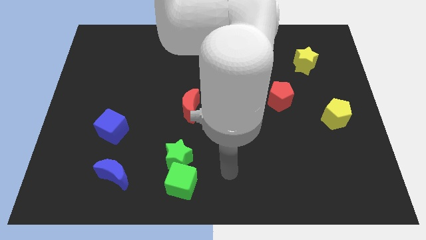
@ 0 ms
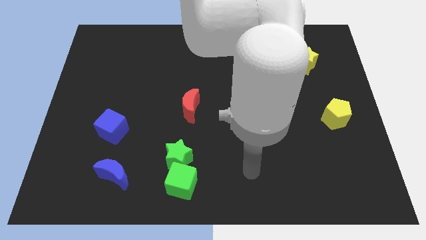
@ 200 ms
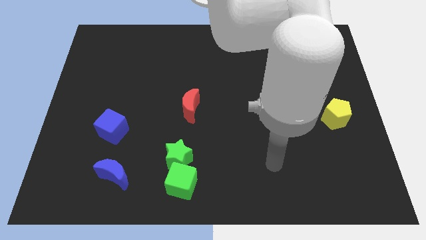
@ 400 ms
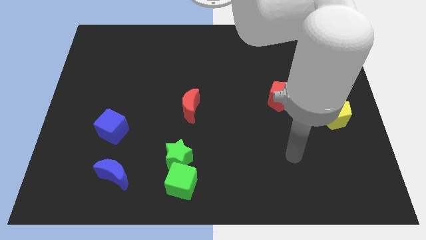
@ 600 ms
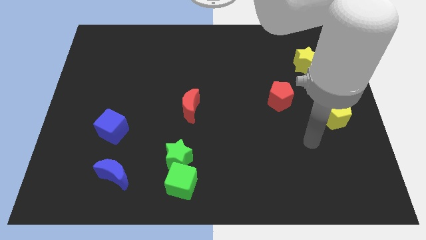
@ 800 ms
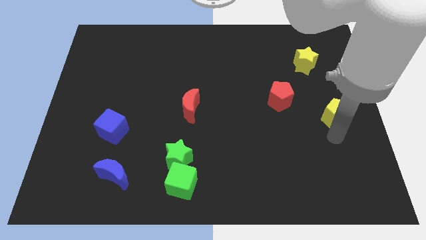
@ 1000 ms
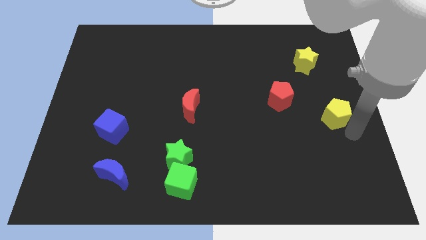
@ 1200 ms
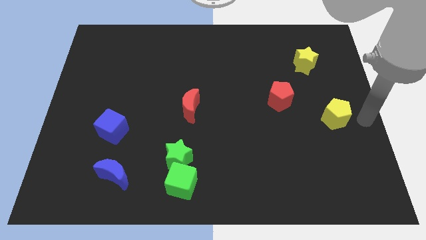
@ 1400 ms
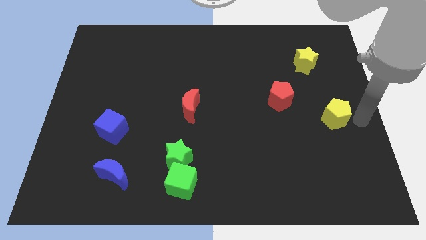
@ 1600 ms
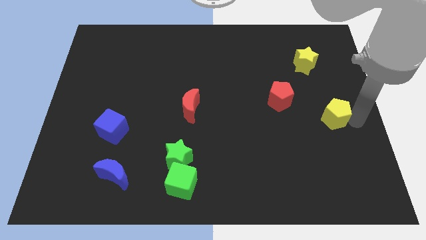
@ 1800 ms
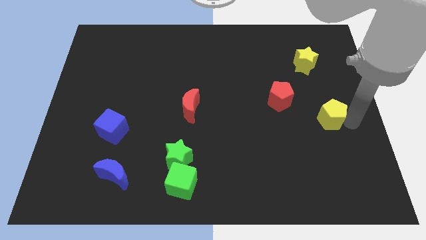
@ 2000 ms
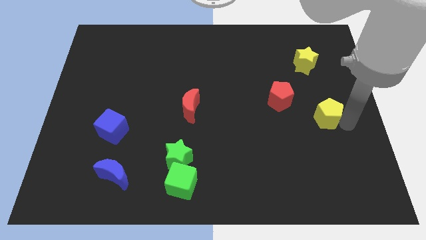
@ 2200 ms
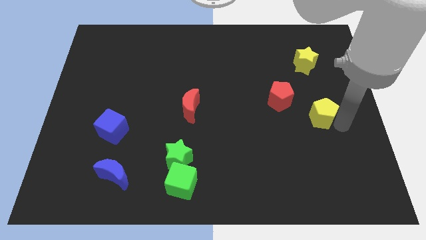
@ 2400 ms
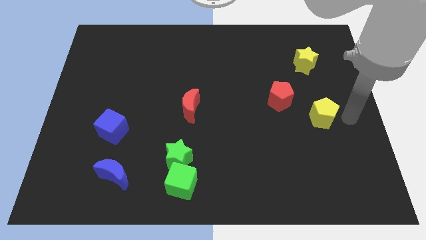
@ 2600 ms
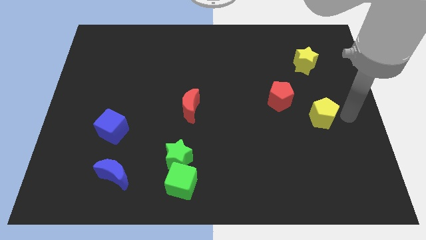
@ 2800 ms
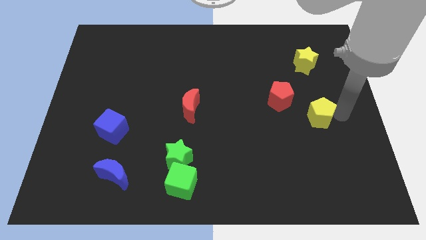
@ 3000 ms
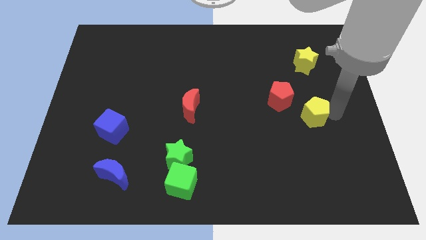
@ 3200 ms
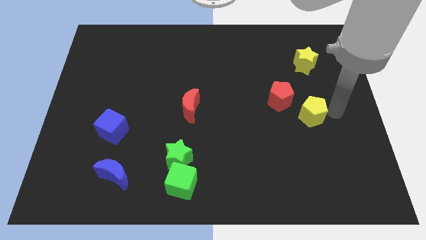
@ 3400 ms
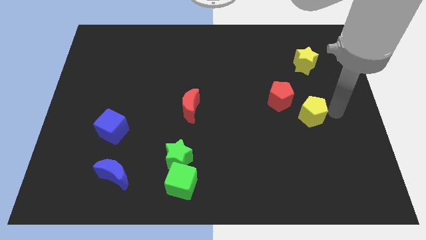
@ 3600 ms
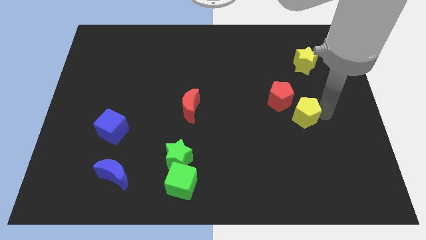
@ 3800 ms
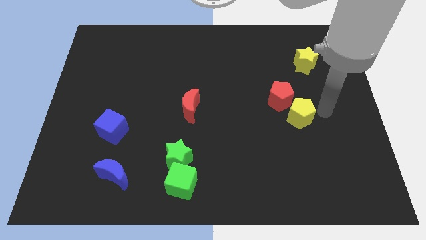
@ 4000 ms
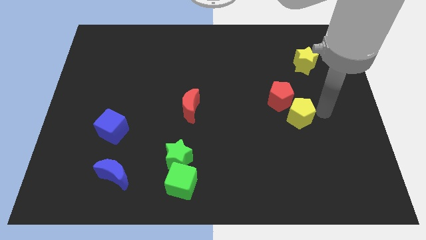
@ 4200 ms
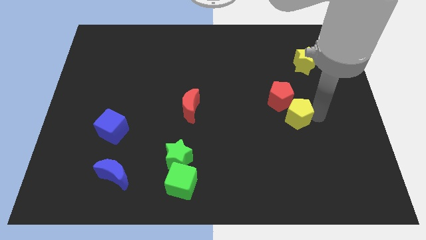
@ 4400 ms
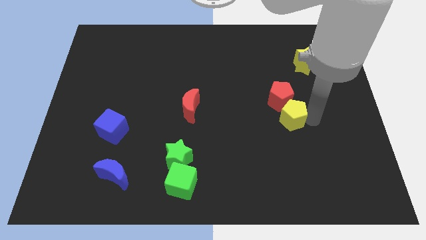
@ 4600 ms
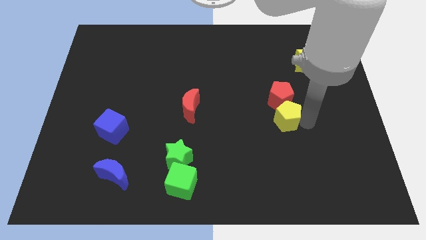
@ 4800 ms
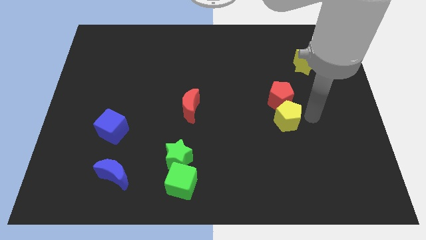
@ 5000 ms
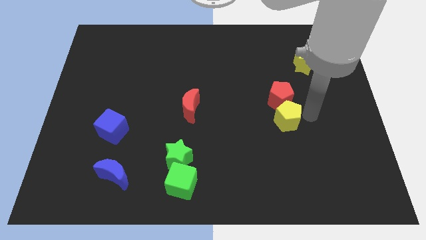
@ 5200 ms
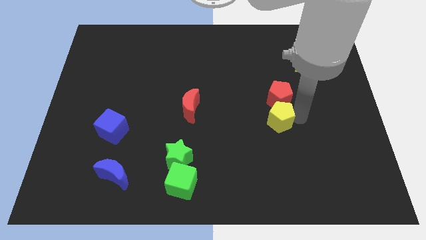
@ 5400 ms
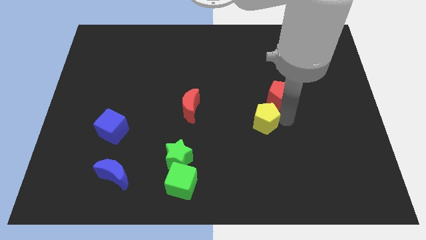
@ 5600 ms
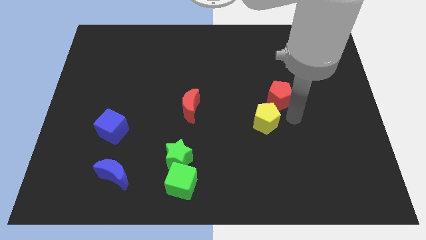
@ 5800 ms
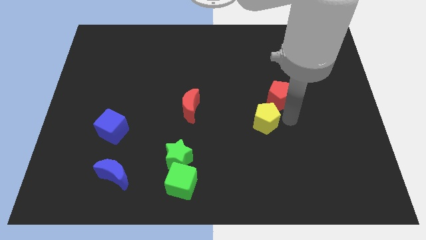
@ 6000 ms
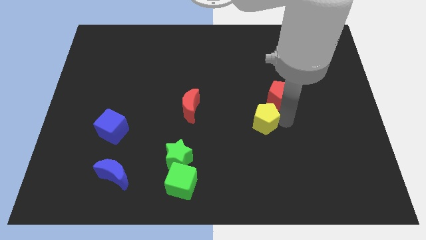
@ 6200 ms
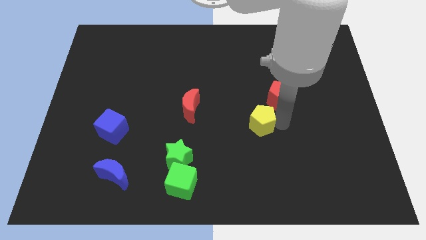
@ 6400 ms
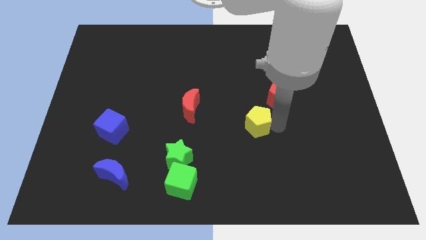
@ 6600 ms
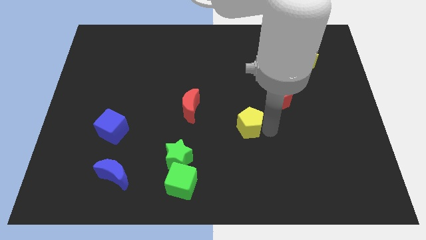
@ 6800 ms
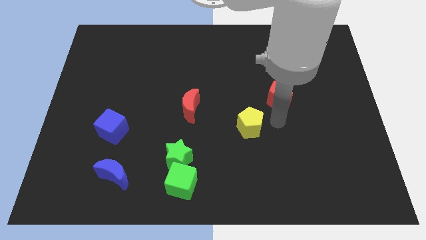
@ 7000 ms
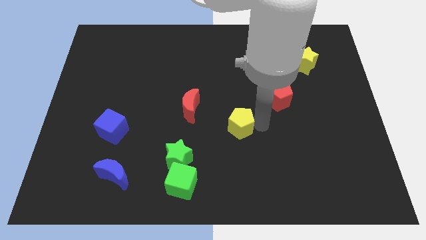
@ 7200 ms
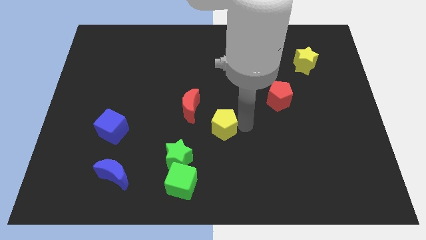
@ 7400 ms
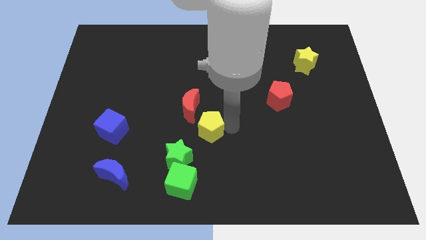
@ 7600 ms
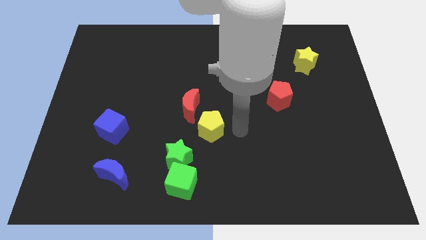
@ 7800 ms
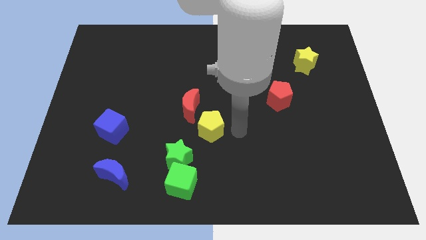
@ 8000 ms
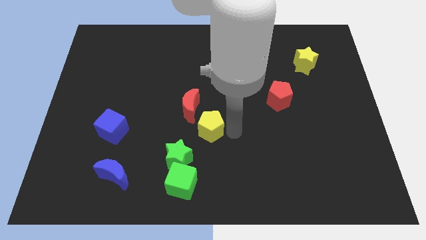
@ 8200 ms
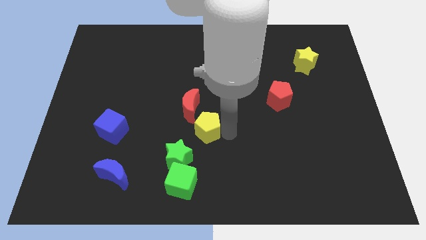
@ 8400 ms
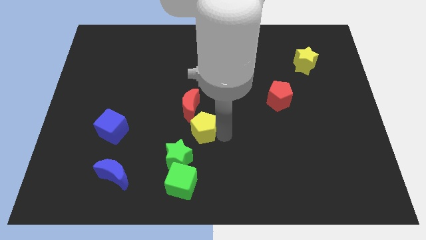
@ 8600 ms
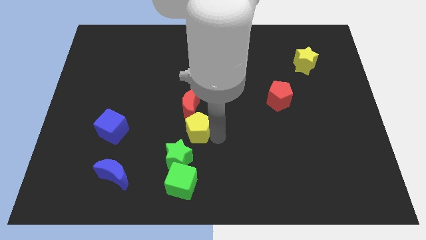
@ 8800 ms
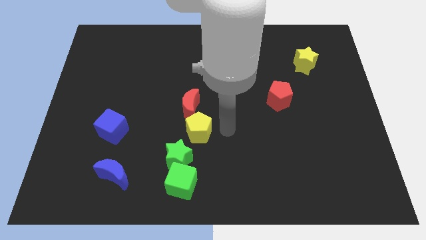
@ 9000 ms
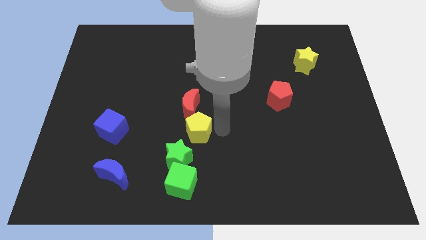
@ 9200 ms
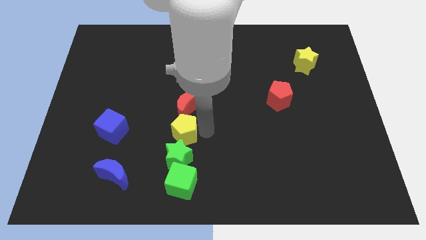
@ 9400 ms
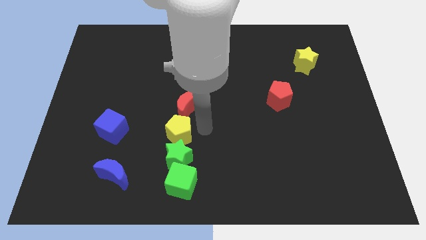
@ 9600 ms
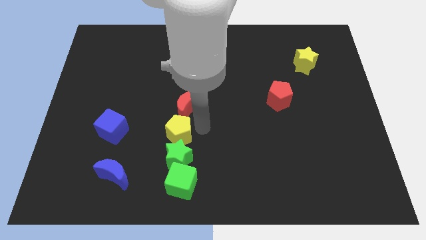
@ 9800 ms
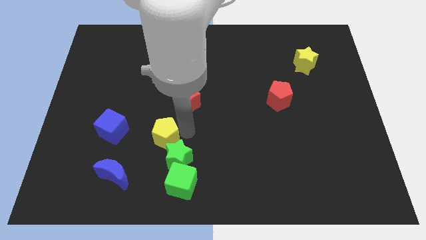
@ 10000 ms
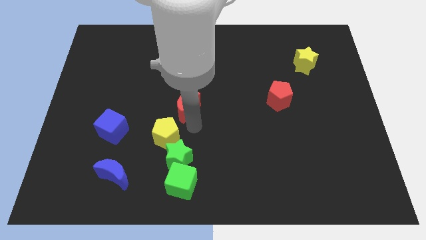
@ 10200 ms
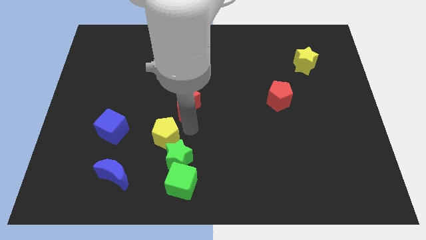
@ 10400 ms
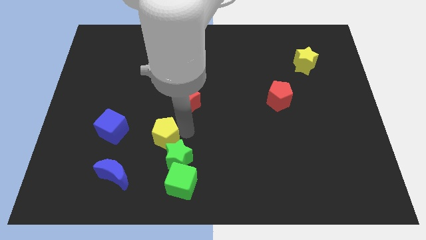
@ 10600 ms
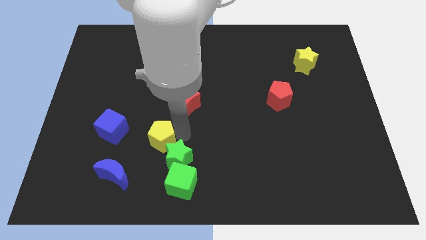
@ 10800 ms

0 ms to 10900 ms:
slide the yellow pentagon just left of the green star

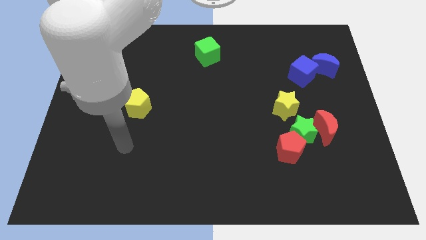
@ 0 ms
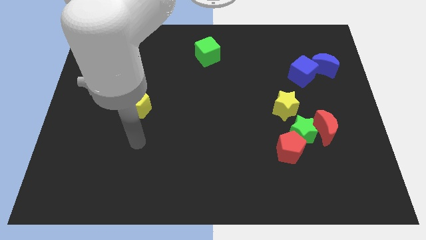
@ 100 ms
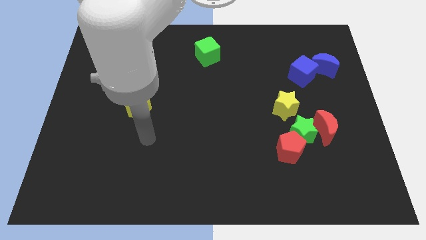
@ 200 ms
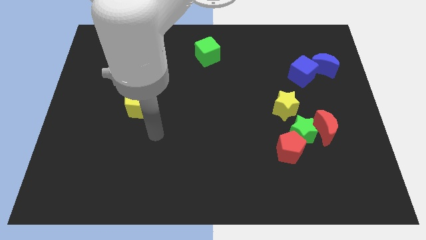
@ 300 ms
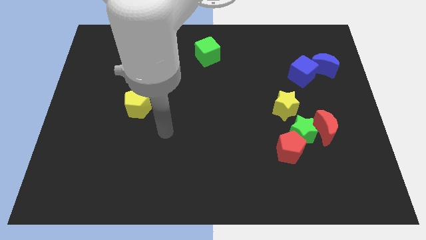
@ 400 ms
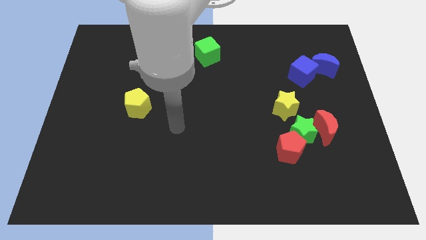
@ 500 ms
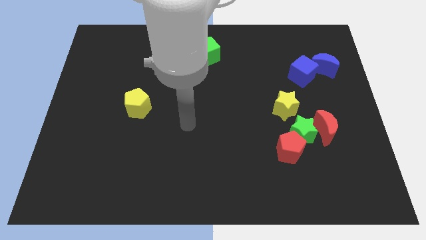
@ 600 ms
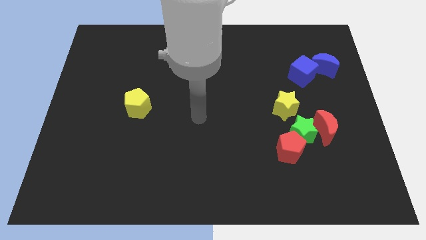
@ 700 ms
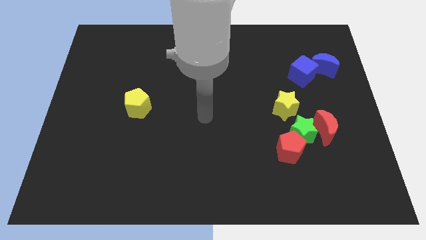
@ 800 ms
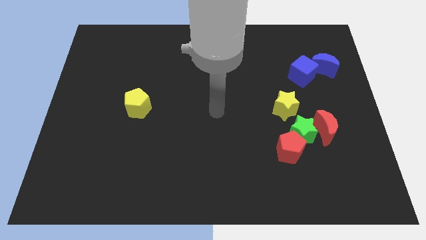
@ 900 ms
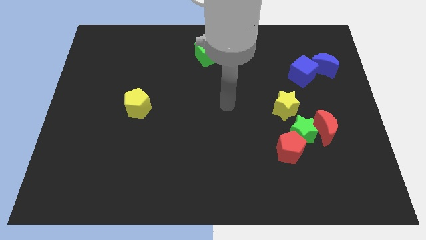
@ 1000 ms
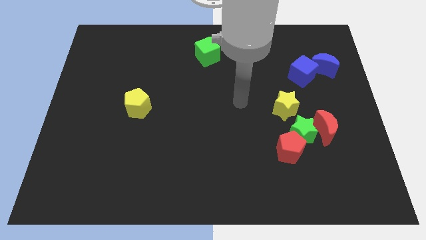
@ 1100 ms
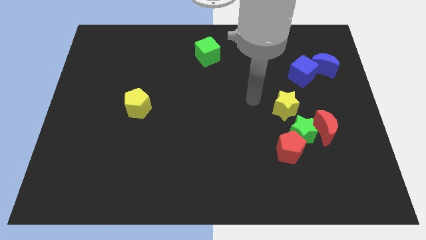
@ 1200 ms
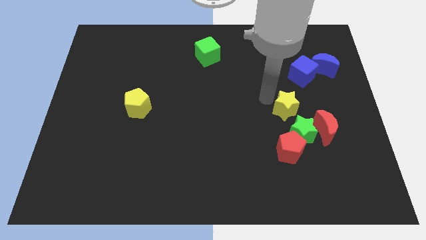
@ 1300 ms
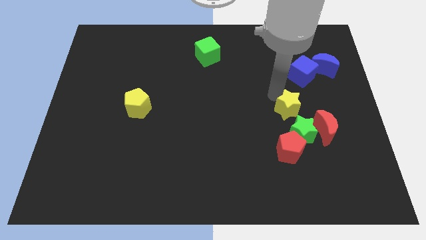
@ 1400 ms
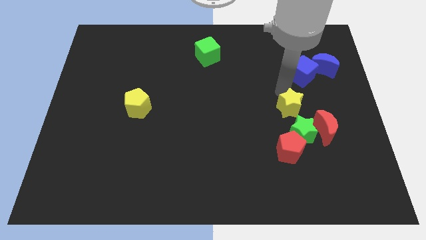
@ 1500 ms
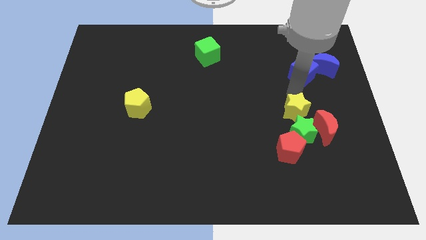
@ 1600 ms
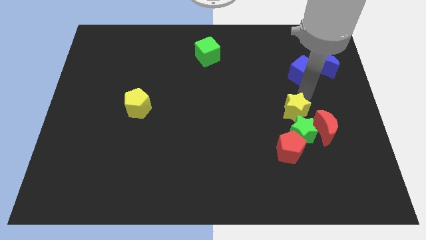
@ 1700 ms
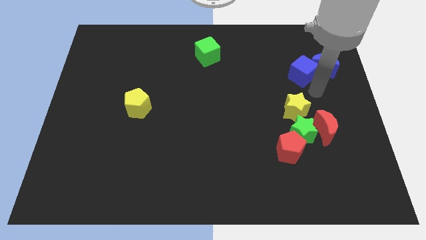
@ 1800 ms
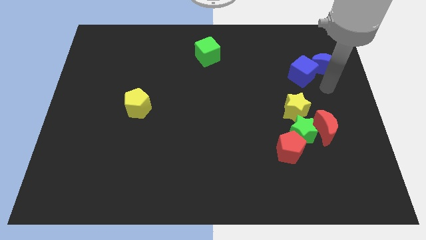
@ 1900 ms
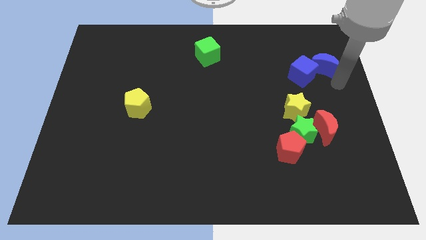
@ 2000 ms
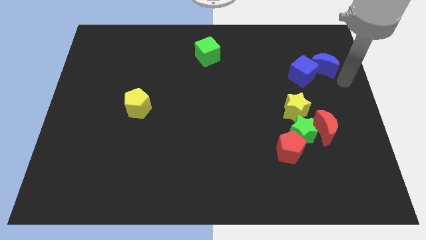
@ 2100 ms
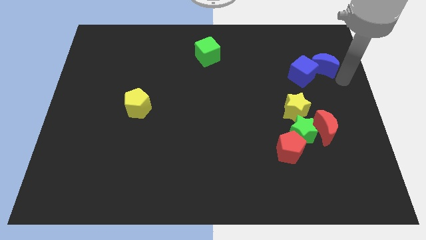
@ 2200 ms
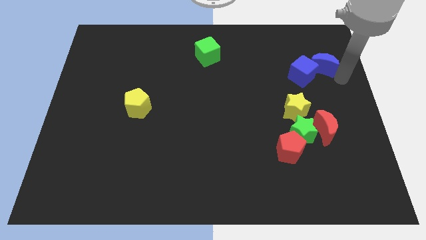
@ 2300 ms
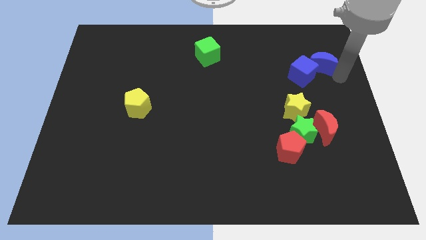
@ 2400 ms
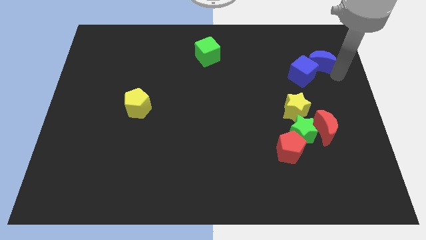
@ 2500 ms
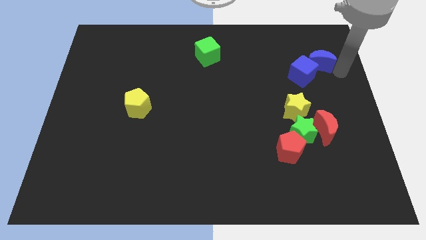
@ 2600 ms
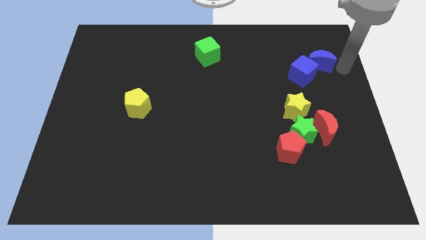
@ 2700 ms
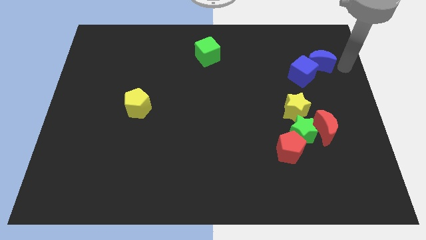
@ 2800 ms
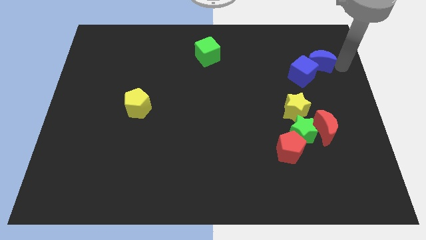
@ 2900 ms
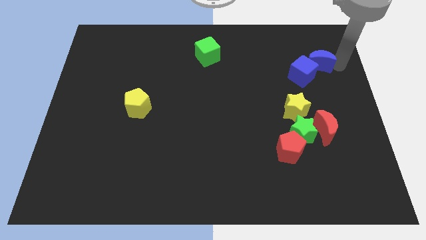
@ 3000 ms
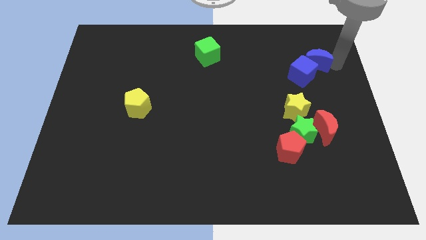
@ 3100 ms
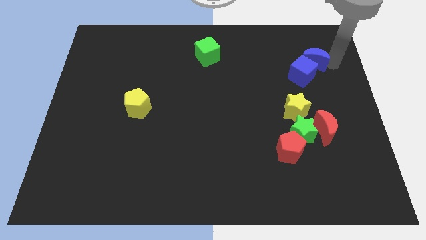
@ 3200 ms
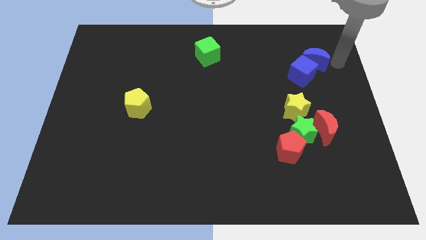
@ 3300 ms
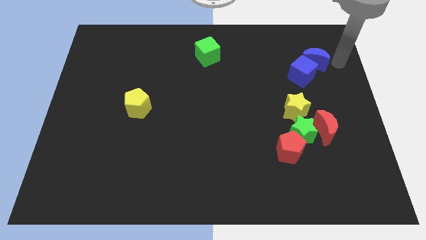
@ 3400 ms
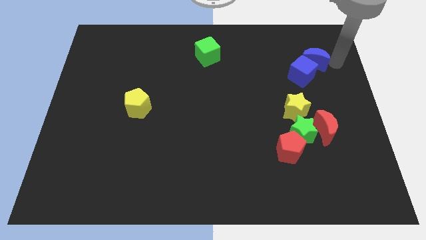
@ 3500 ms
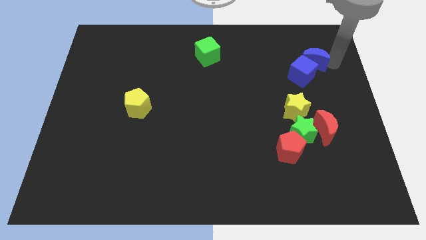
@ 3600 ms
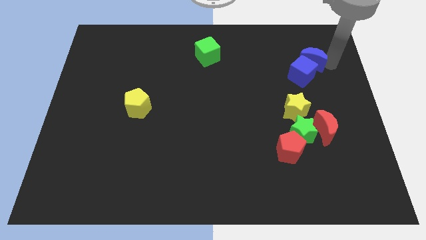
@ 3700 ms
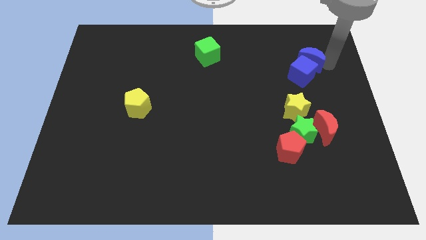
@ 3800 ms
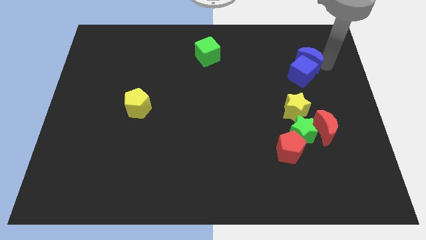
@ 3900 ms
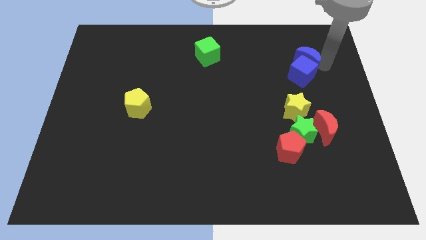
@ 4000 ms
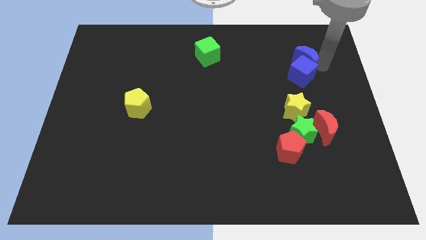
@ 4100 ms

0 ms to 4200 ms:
move the blue moon to the top left side of the blue cube
